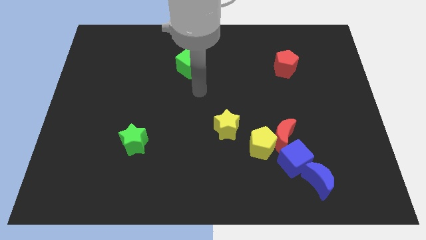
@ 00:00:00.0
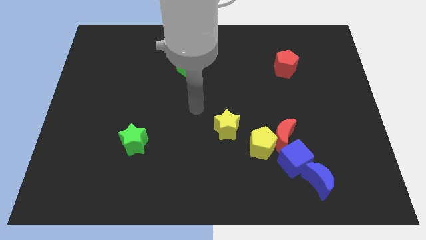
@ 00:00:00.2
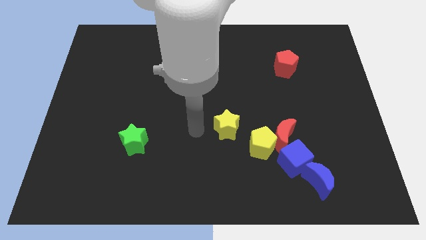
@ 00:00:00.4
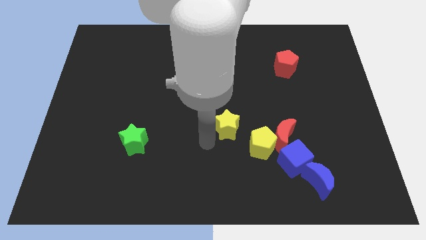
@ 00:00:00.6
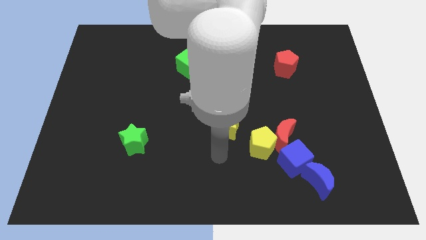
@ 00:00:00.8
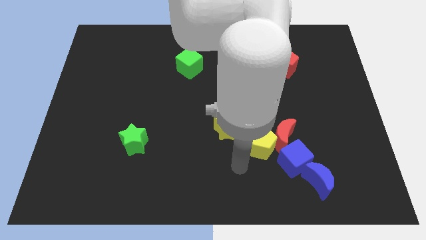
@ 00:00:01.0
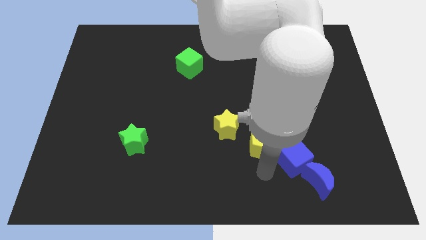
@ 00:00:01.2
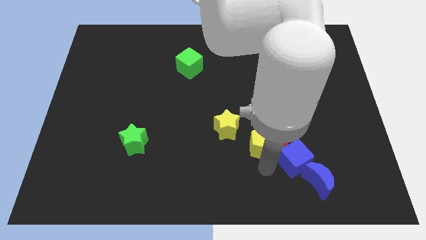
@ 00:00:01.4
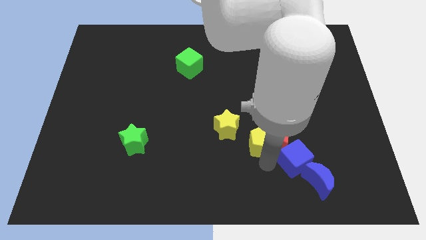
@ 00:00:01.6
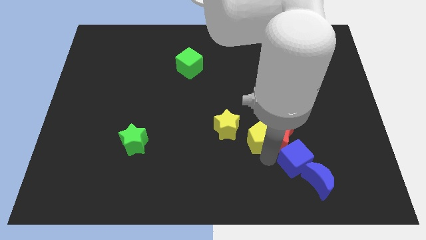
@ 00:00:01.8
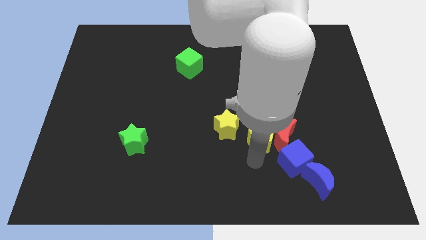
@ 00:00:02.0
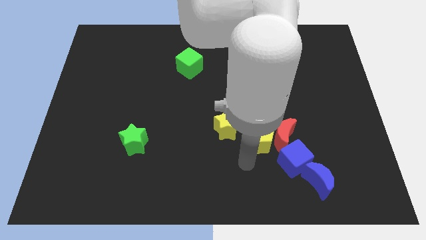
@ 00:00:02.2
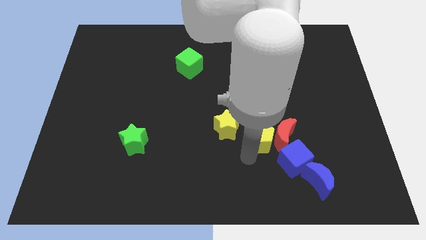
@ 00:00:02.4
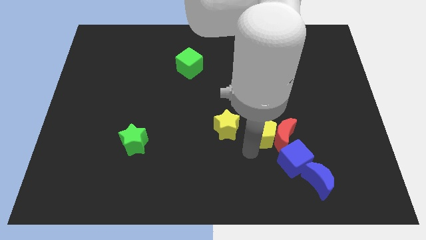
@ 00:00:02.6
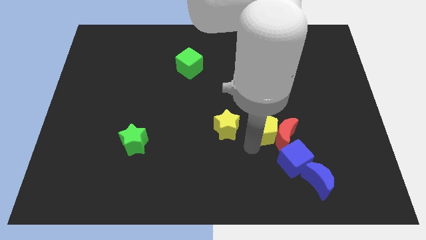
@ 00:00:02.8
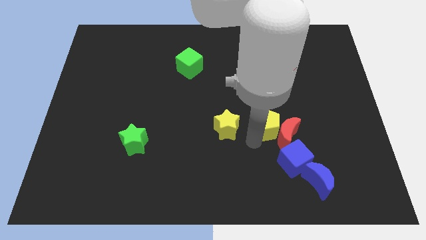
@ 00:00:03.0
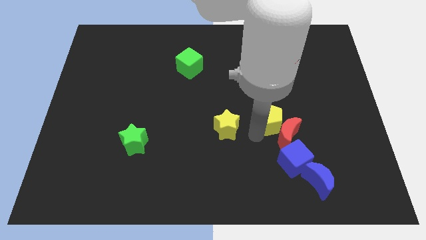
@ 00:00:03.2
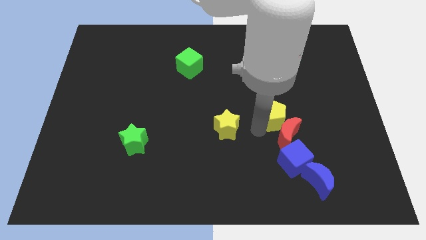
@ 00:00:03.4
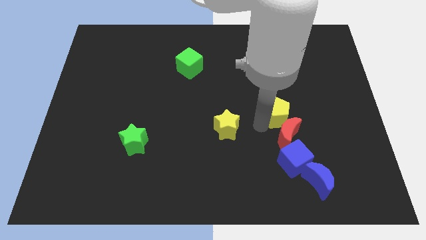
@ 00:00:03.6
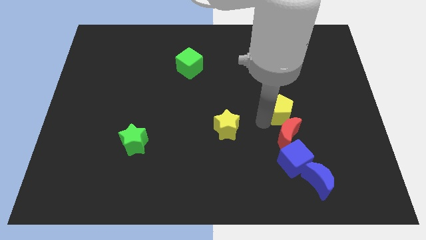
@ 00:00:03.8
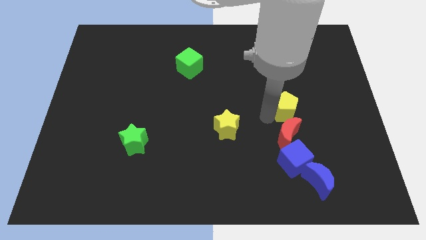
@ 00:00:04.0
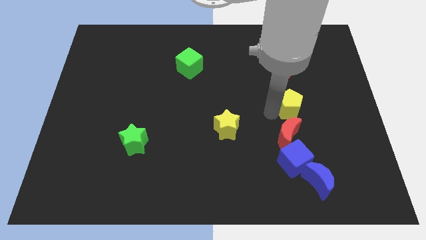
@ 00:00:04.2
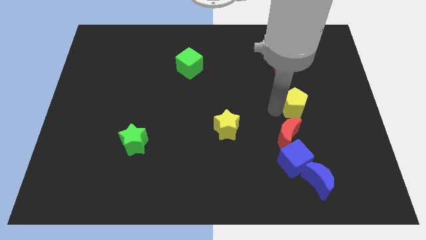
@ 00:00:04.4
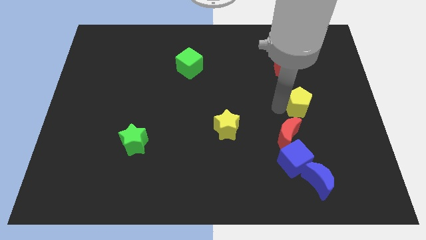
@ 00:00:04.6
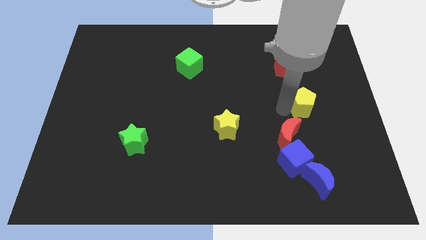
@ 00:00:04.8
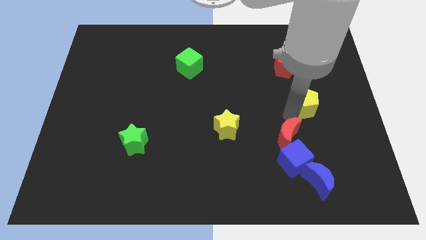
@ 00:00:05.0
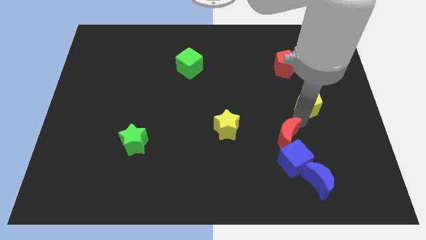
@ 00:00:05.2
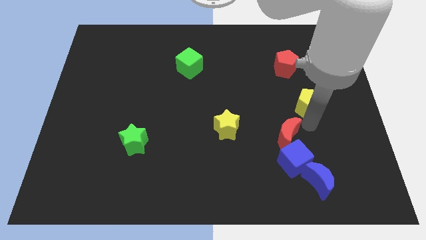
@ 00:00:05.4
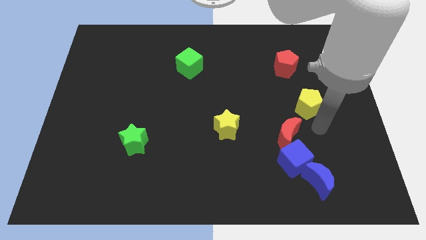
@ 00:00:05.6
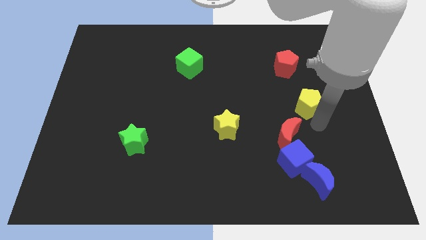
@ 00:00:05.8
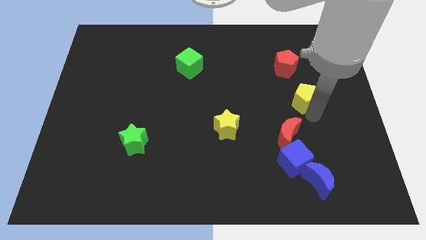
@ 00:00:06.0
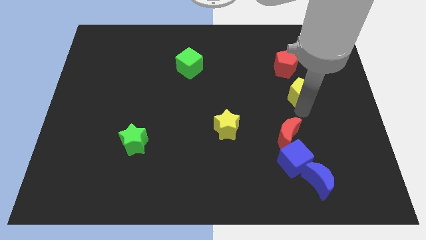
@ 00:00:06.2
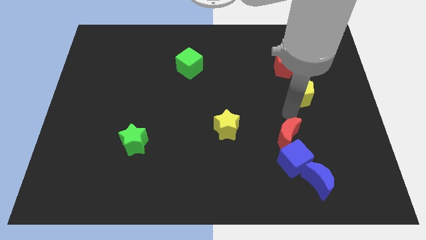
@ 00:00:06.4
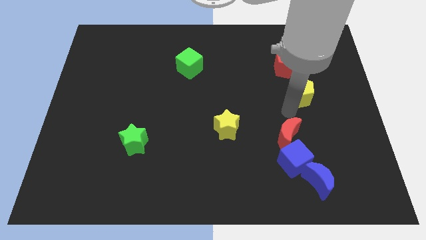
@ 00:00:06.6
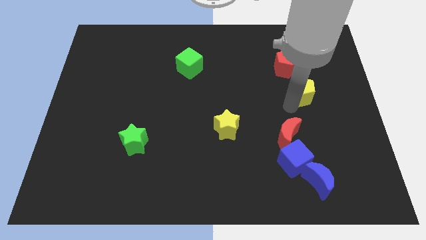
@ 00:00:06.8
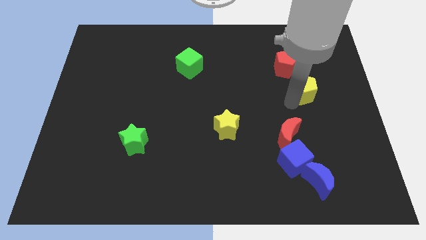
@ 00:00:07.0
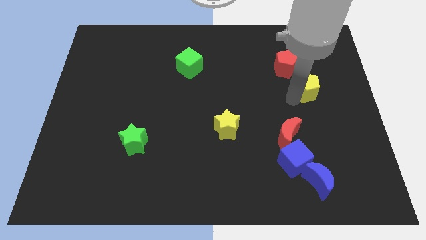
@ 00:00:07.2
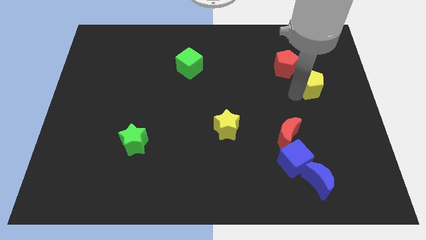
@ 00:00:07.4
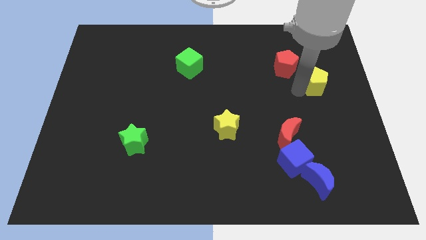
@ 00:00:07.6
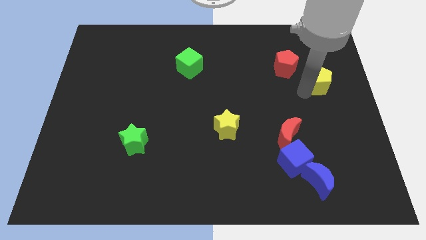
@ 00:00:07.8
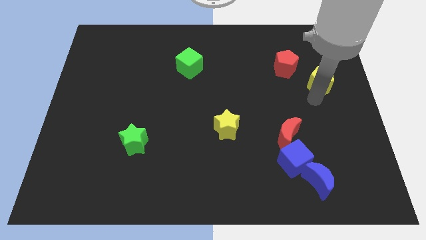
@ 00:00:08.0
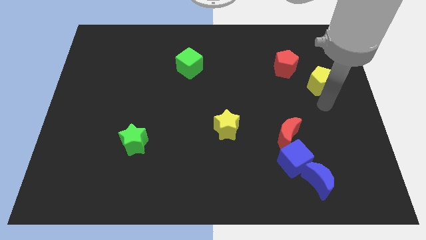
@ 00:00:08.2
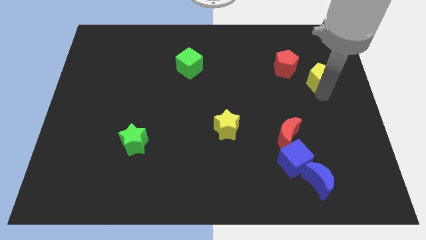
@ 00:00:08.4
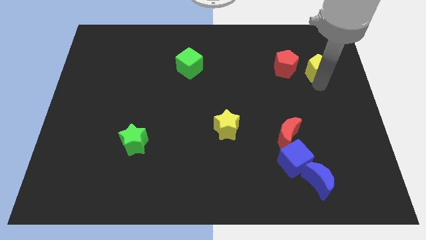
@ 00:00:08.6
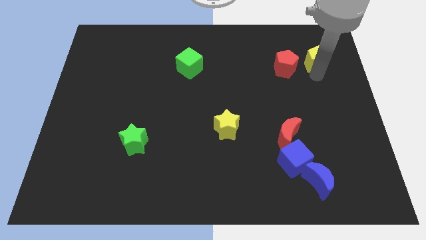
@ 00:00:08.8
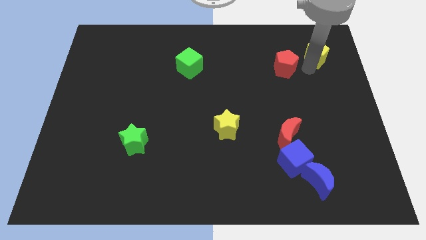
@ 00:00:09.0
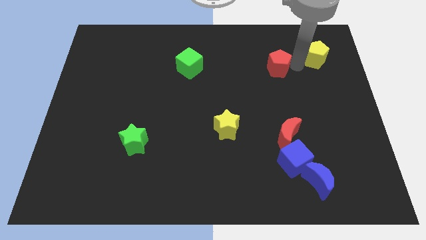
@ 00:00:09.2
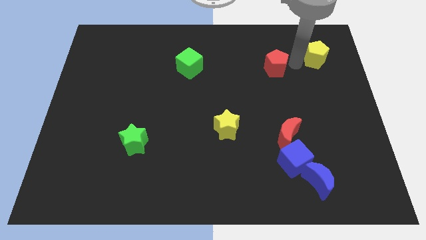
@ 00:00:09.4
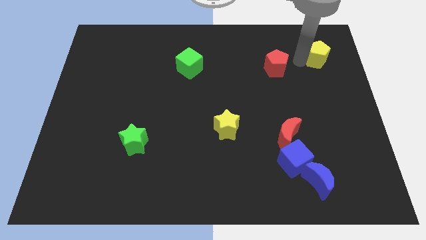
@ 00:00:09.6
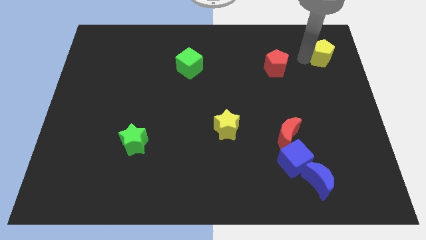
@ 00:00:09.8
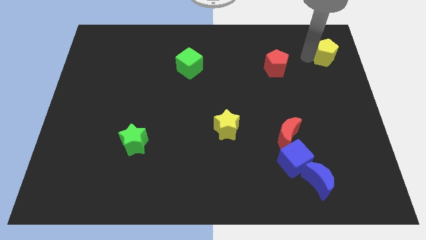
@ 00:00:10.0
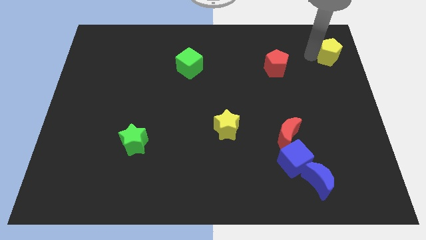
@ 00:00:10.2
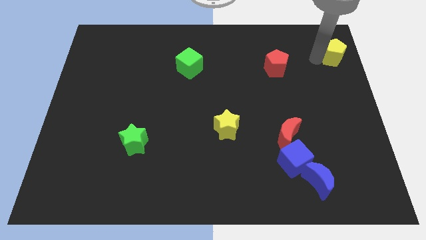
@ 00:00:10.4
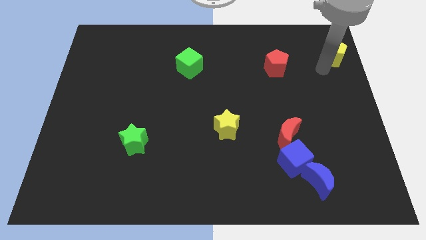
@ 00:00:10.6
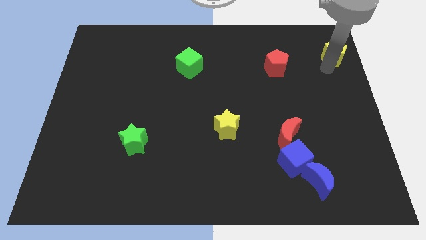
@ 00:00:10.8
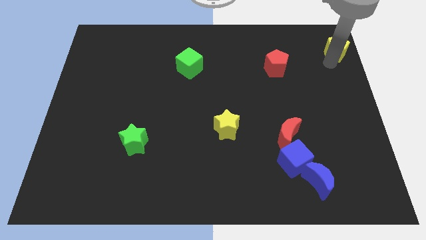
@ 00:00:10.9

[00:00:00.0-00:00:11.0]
slide the yellow pentagon to the top right of the board

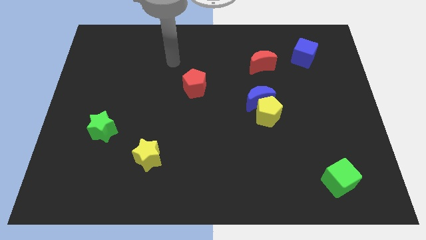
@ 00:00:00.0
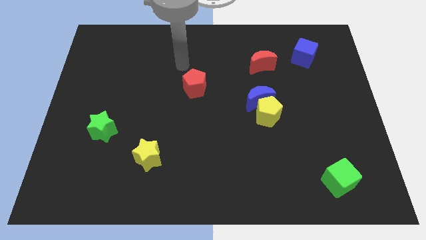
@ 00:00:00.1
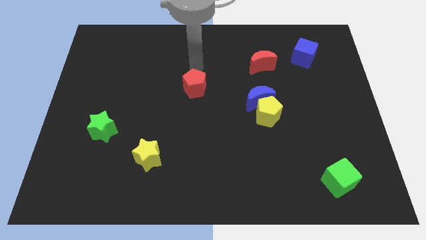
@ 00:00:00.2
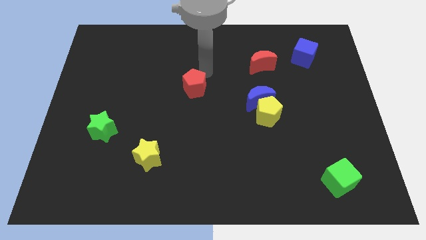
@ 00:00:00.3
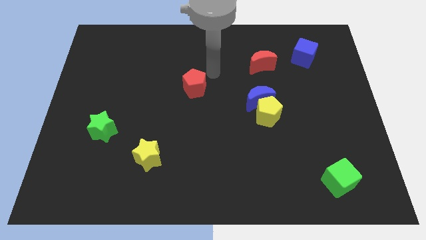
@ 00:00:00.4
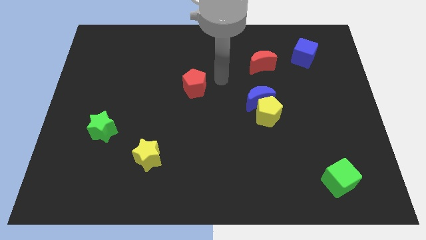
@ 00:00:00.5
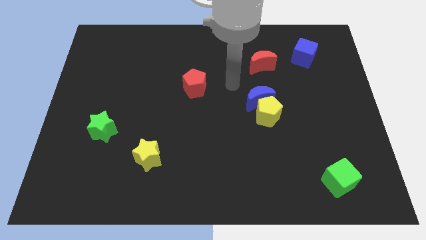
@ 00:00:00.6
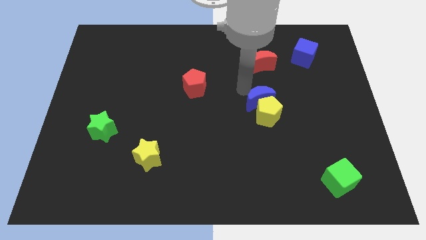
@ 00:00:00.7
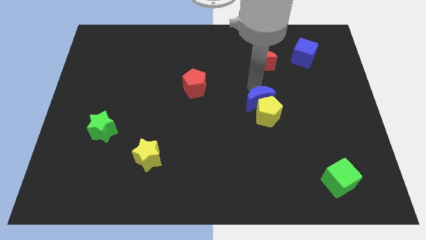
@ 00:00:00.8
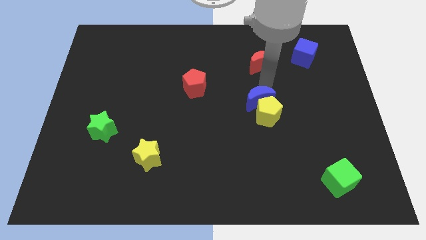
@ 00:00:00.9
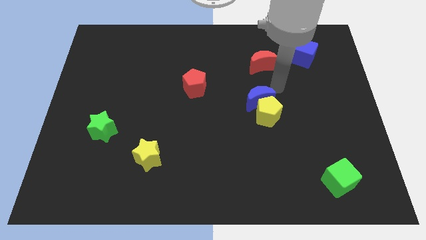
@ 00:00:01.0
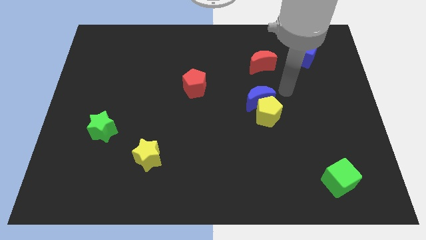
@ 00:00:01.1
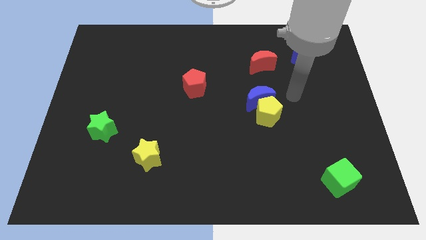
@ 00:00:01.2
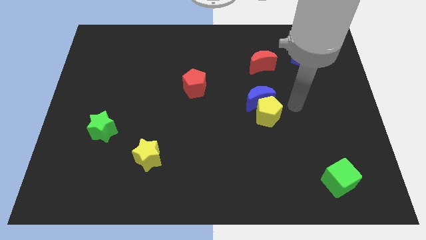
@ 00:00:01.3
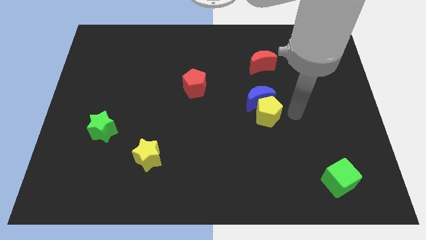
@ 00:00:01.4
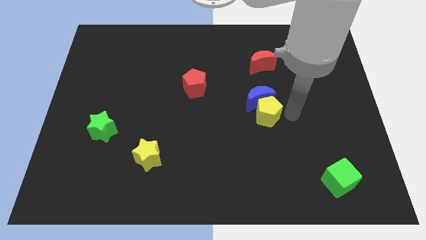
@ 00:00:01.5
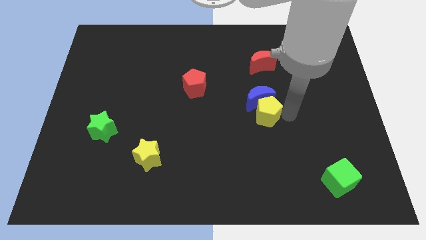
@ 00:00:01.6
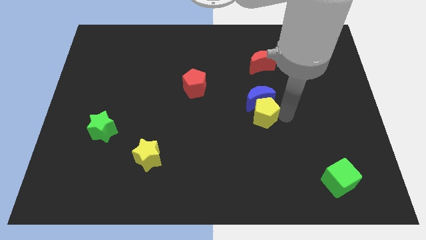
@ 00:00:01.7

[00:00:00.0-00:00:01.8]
move the yellow pentagon to the middle
